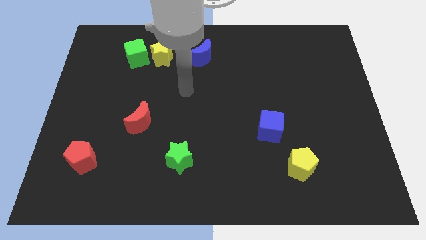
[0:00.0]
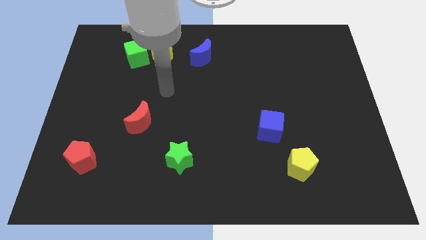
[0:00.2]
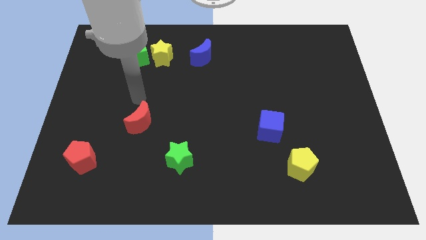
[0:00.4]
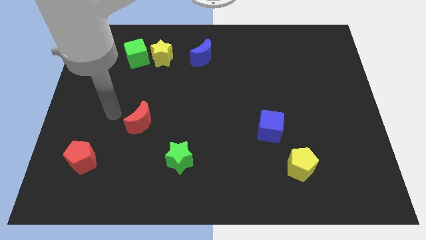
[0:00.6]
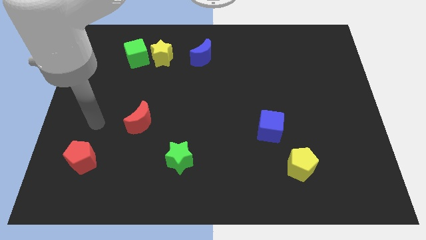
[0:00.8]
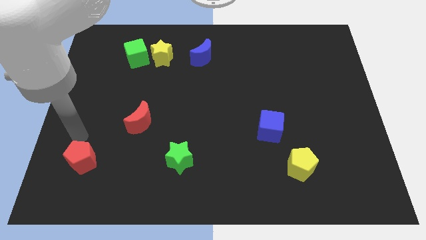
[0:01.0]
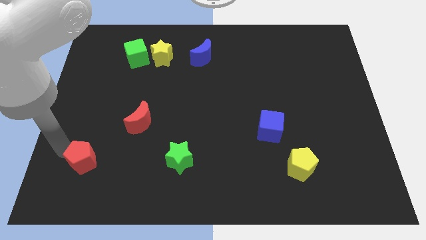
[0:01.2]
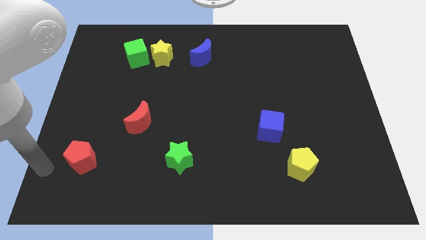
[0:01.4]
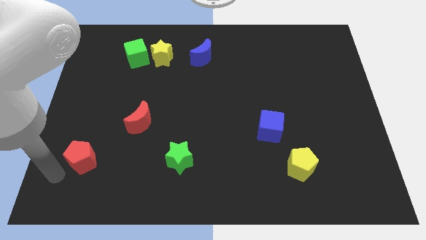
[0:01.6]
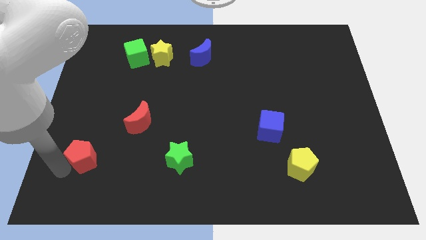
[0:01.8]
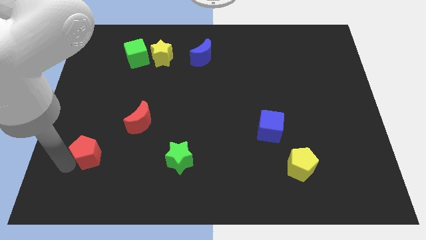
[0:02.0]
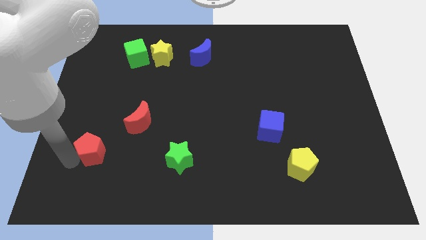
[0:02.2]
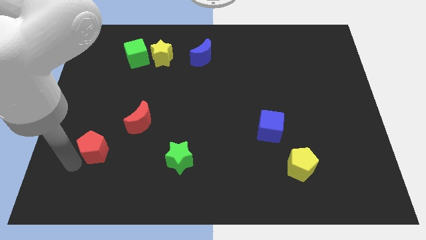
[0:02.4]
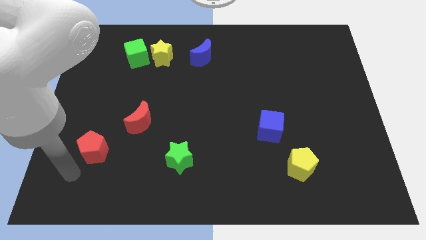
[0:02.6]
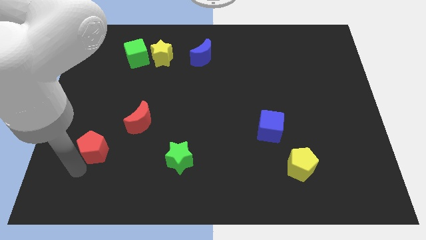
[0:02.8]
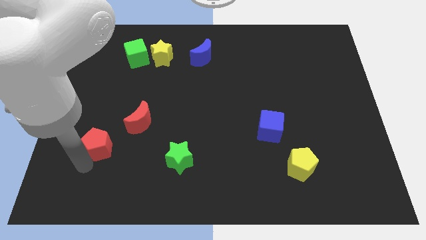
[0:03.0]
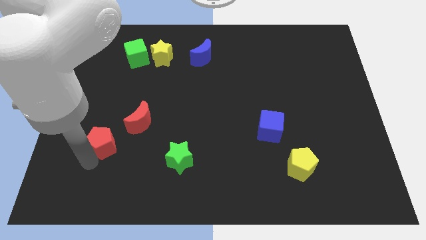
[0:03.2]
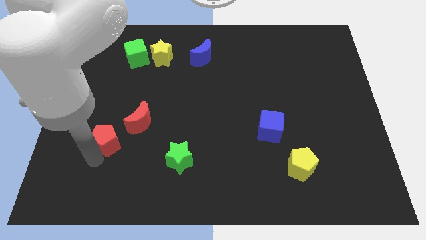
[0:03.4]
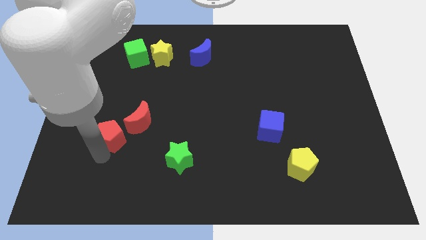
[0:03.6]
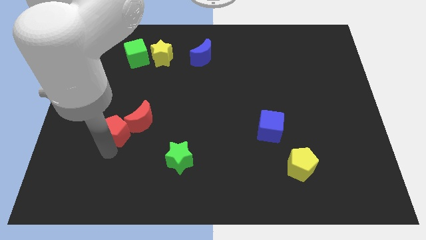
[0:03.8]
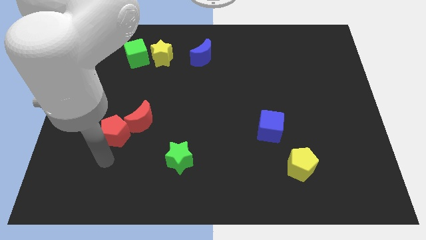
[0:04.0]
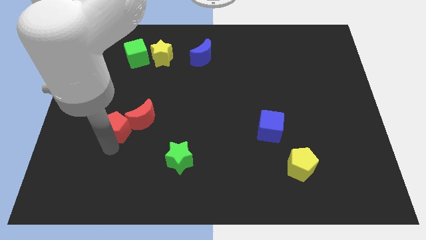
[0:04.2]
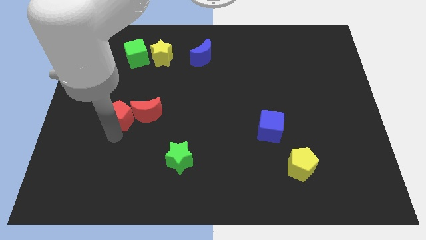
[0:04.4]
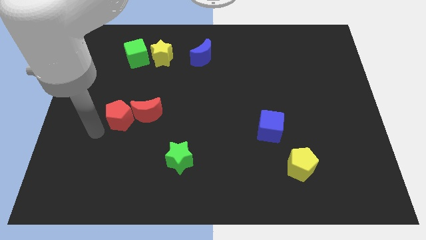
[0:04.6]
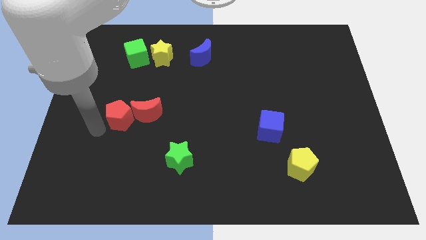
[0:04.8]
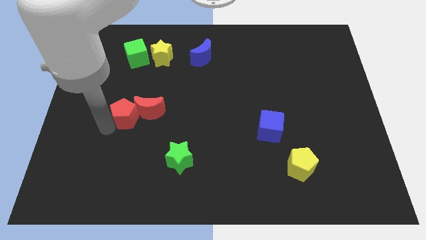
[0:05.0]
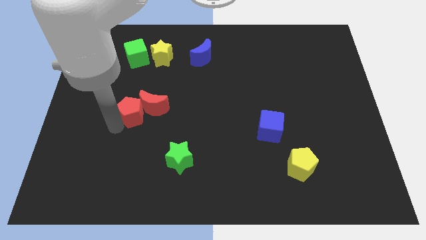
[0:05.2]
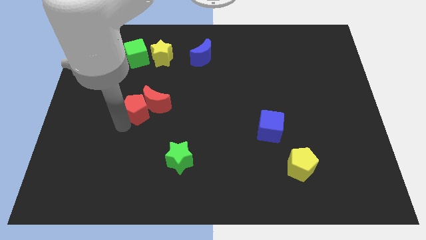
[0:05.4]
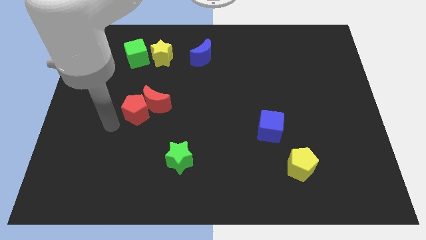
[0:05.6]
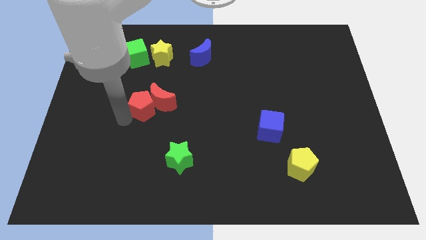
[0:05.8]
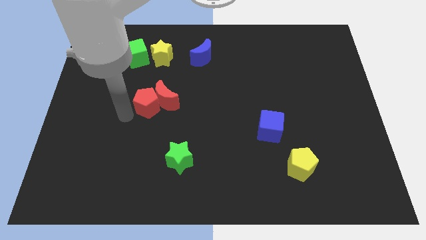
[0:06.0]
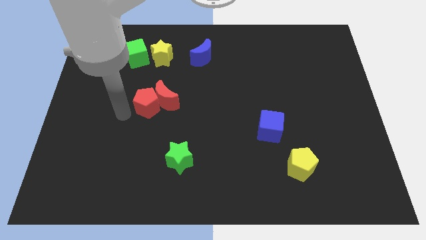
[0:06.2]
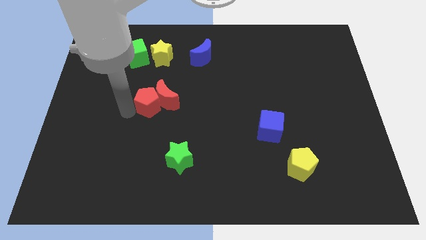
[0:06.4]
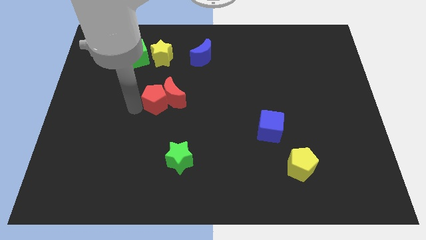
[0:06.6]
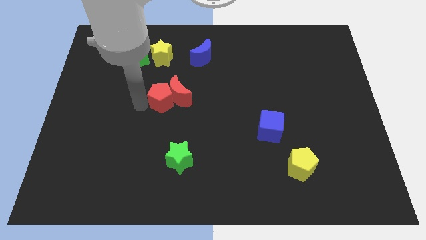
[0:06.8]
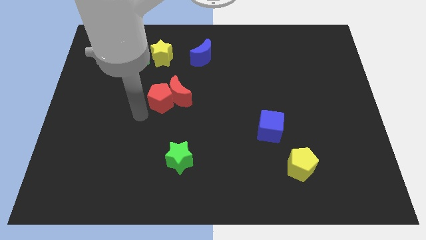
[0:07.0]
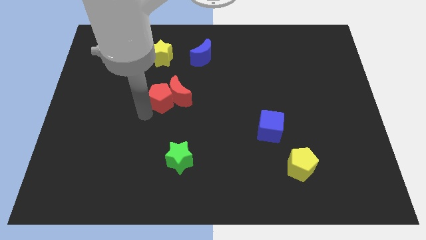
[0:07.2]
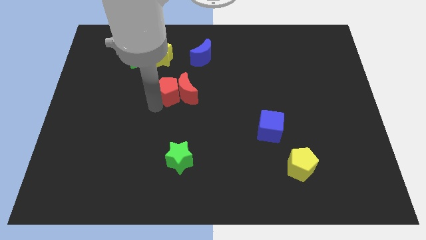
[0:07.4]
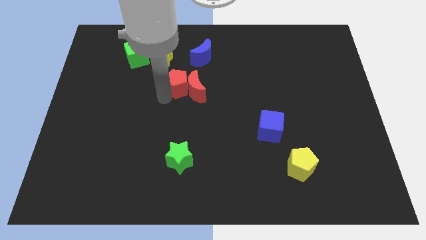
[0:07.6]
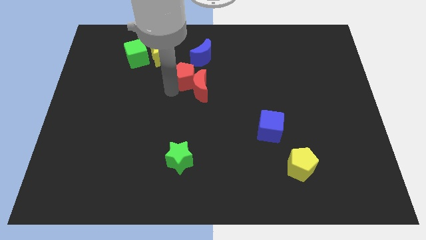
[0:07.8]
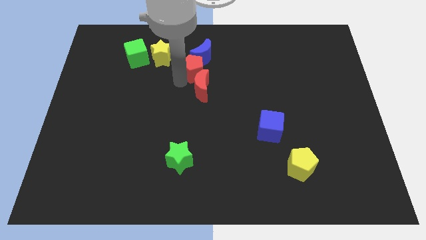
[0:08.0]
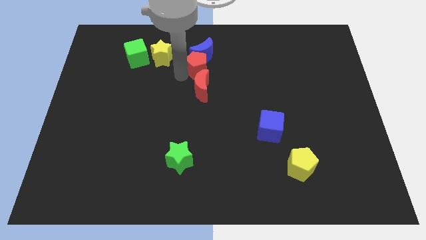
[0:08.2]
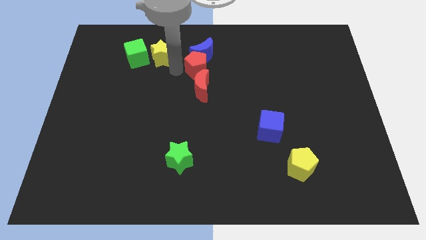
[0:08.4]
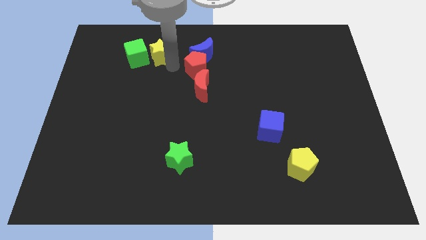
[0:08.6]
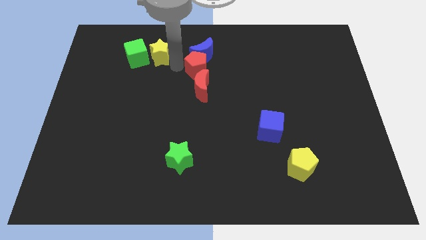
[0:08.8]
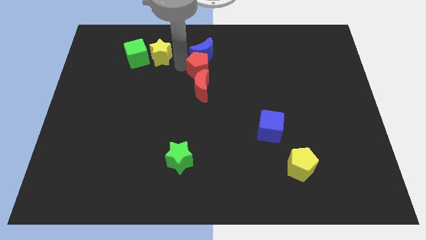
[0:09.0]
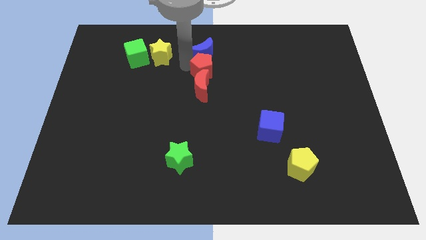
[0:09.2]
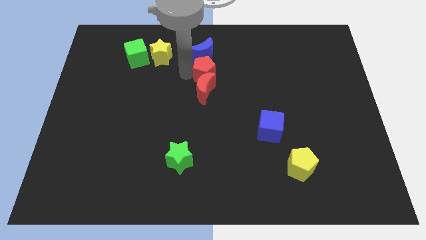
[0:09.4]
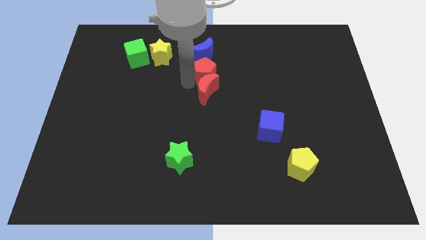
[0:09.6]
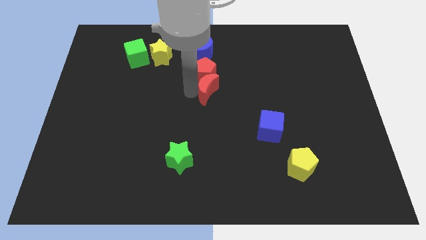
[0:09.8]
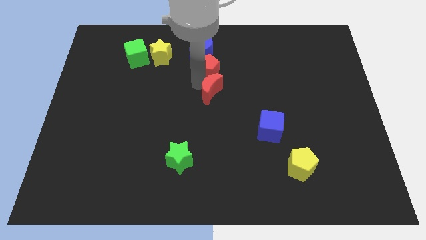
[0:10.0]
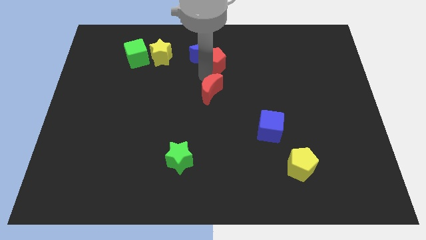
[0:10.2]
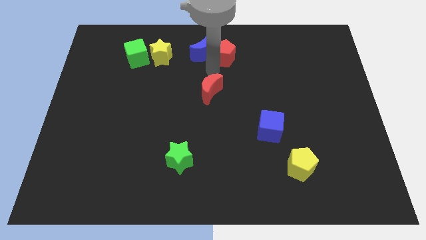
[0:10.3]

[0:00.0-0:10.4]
slide the red pentagon to the top

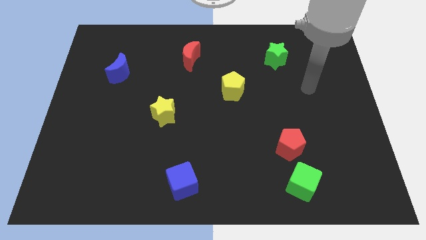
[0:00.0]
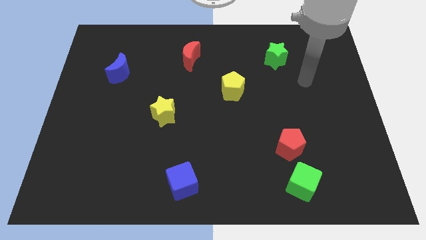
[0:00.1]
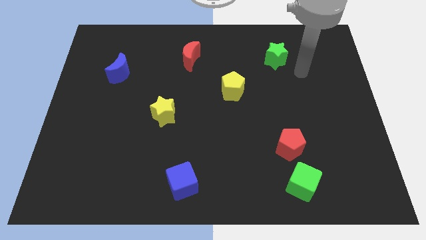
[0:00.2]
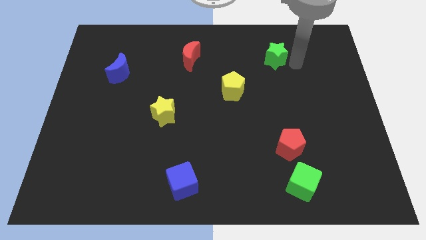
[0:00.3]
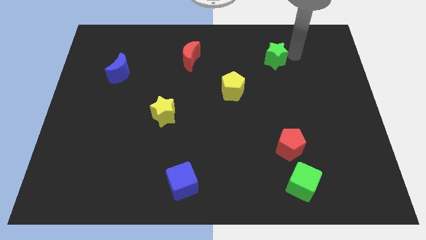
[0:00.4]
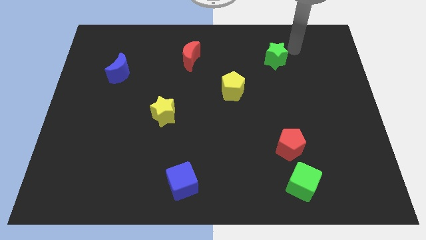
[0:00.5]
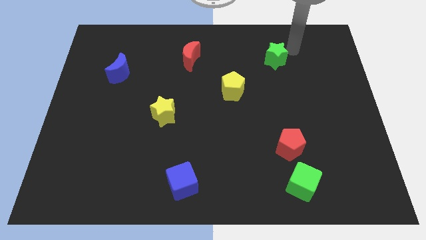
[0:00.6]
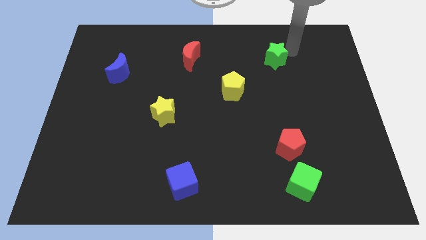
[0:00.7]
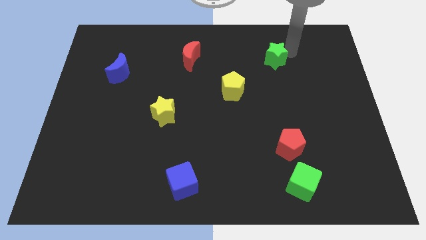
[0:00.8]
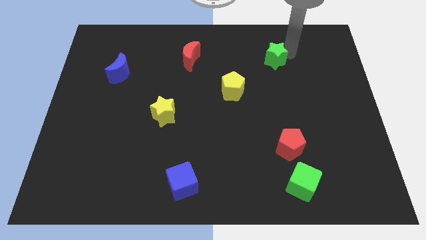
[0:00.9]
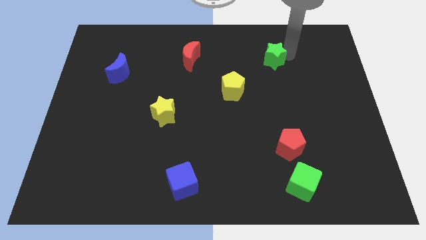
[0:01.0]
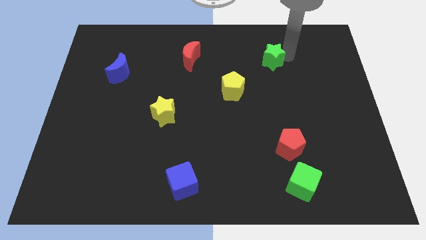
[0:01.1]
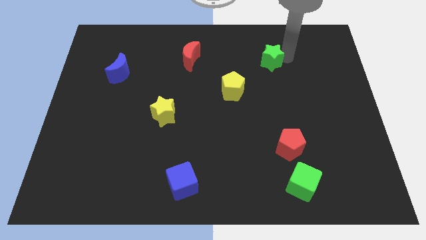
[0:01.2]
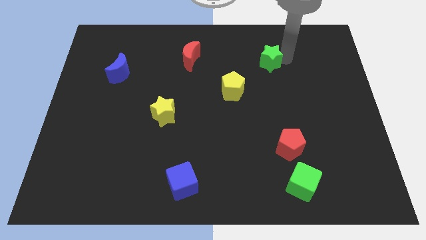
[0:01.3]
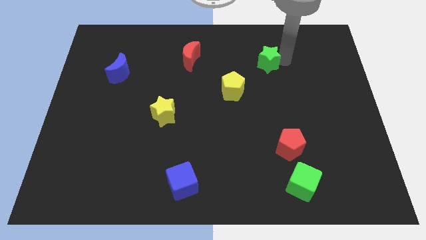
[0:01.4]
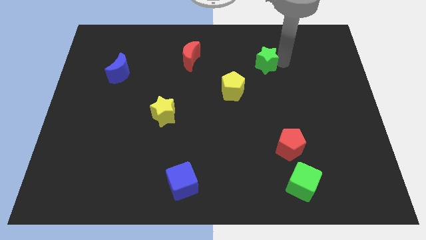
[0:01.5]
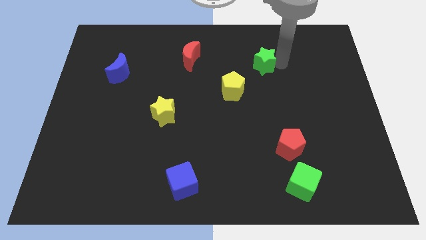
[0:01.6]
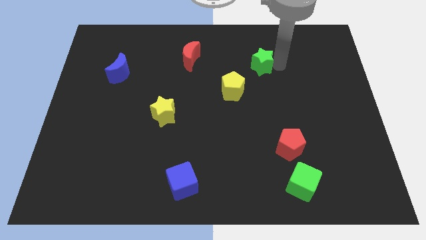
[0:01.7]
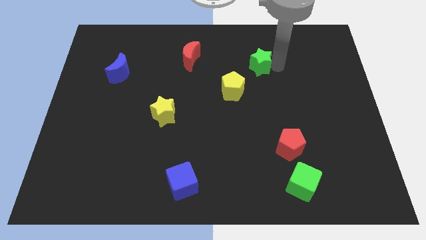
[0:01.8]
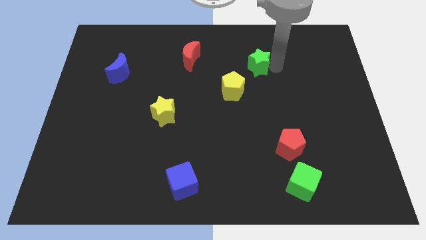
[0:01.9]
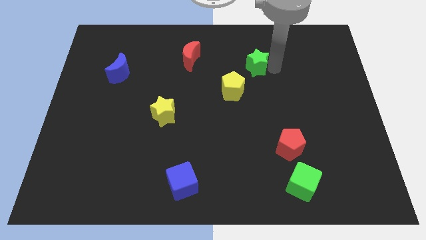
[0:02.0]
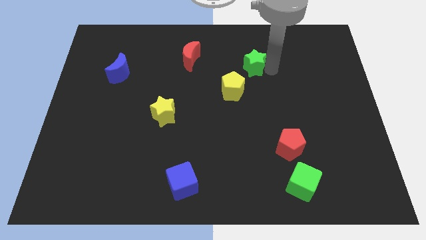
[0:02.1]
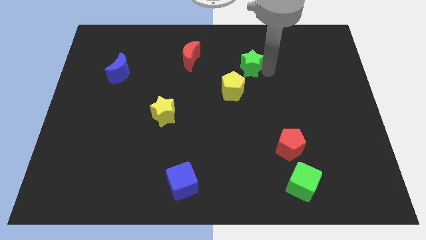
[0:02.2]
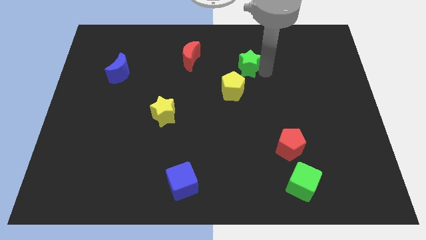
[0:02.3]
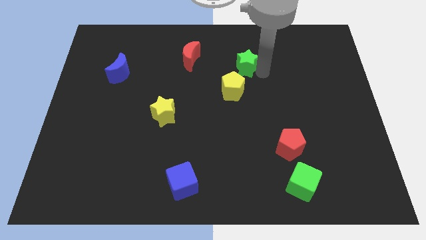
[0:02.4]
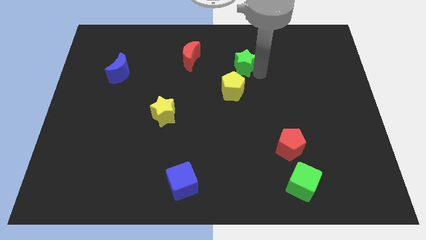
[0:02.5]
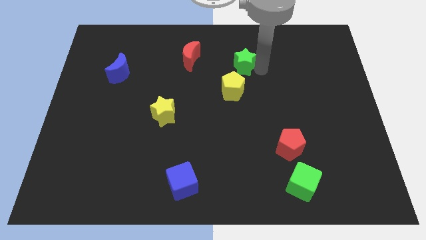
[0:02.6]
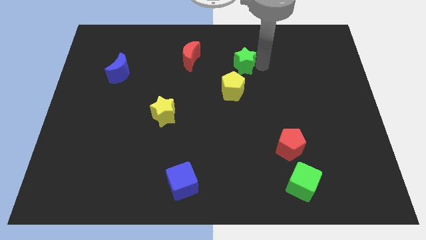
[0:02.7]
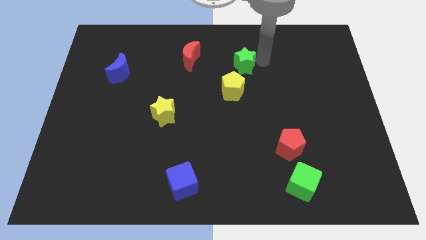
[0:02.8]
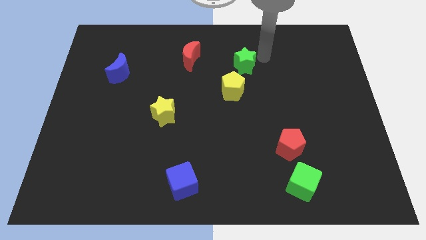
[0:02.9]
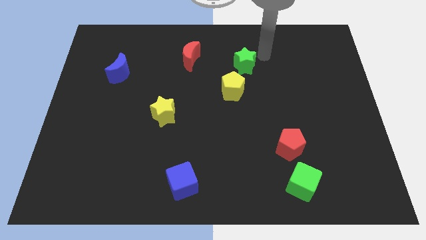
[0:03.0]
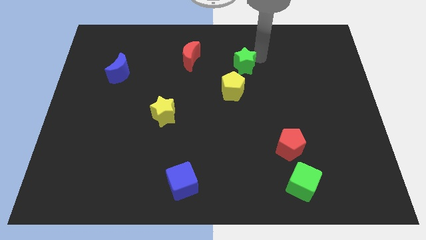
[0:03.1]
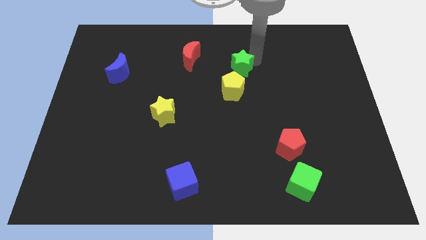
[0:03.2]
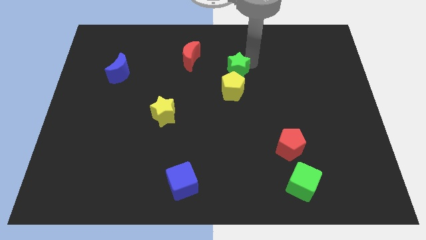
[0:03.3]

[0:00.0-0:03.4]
move the green star to the center of the board
